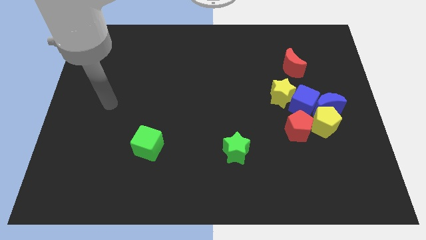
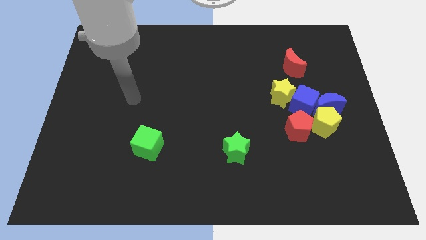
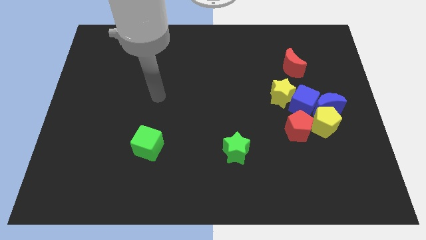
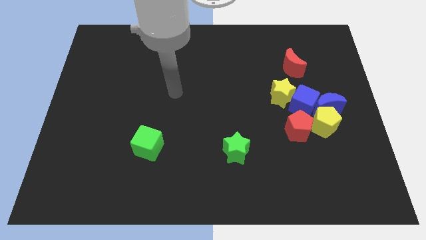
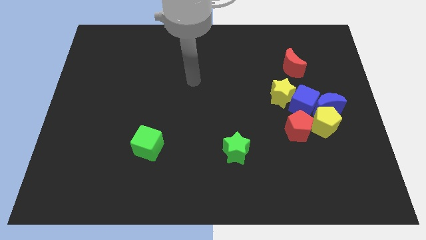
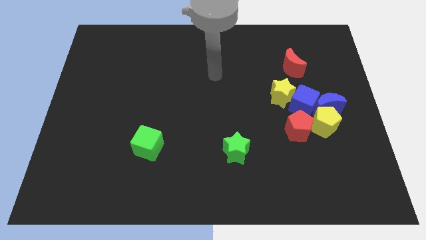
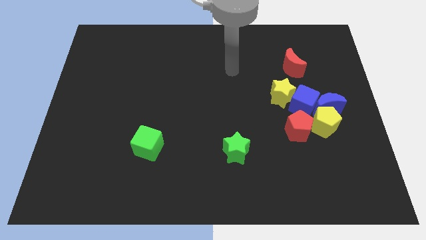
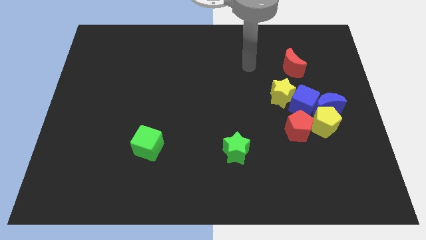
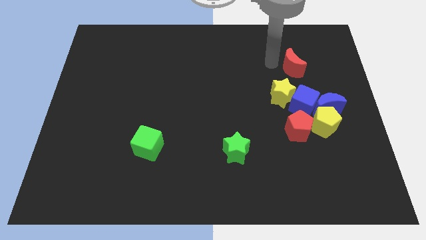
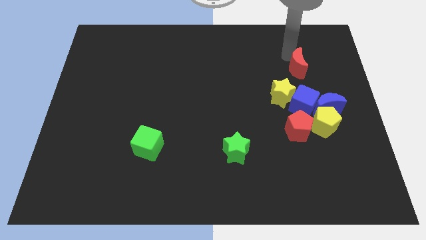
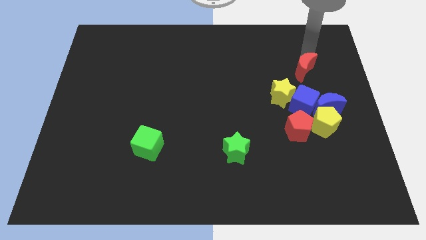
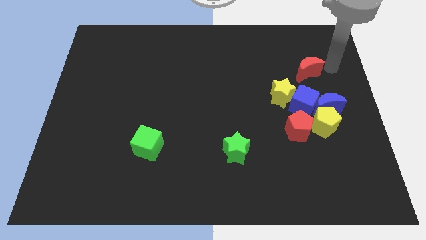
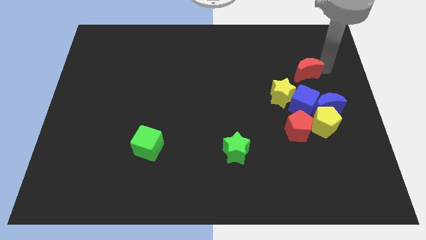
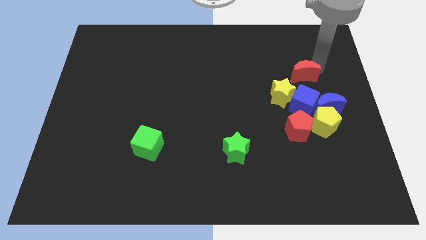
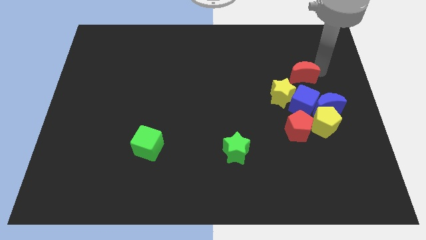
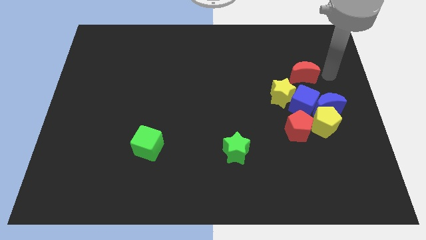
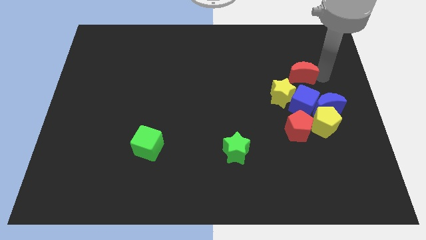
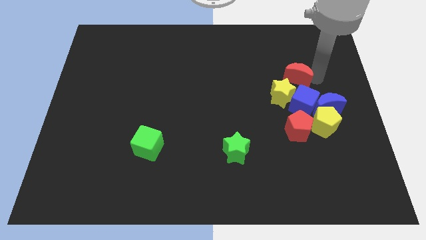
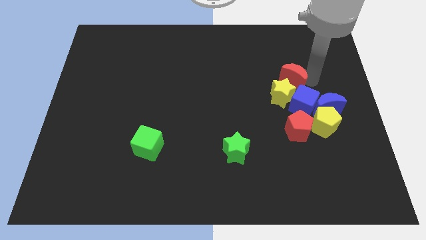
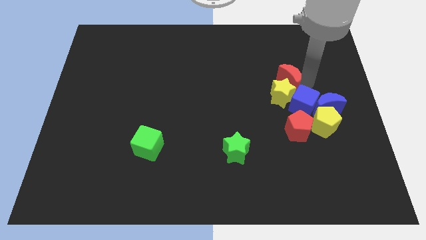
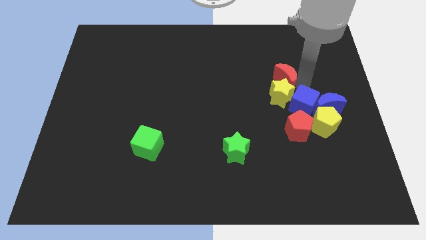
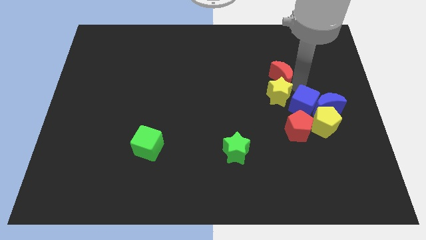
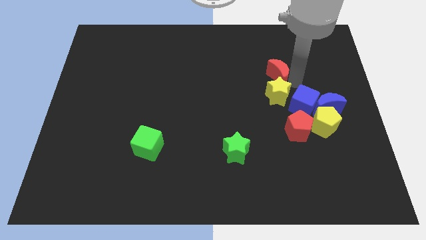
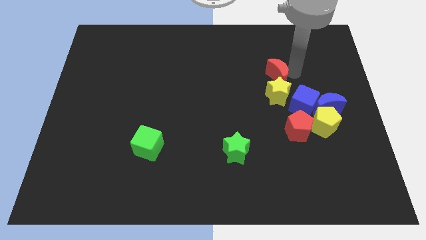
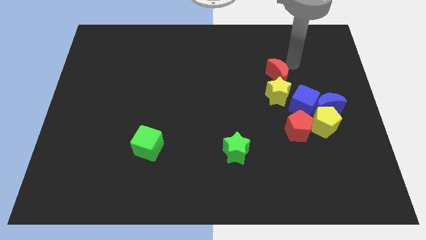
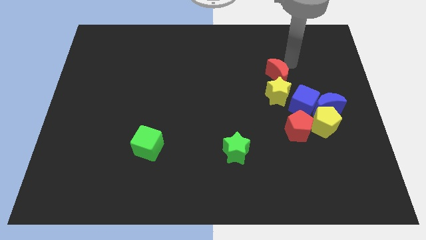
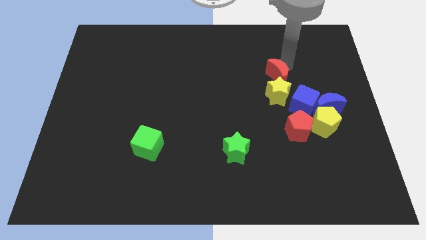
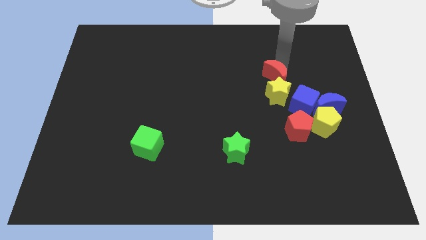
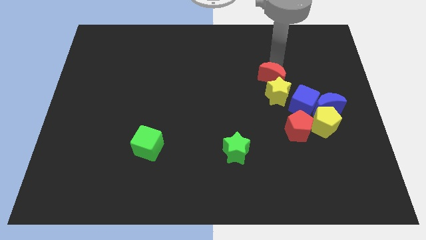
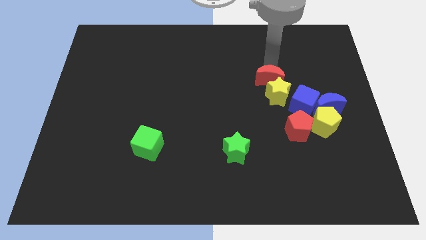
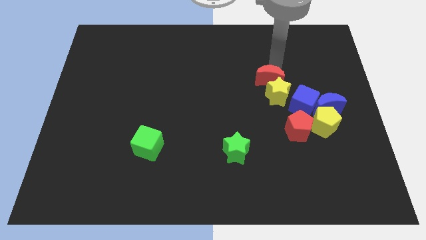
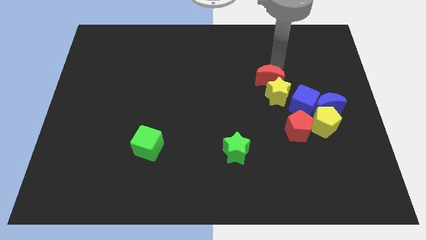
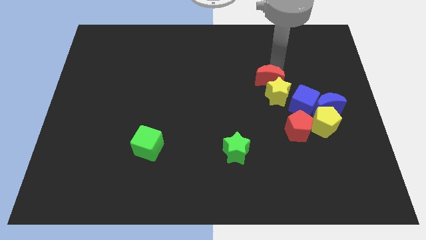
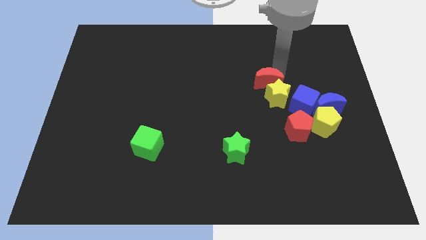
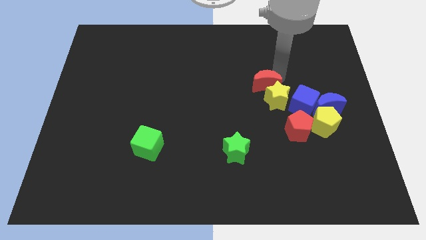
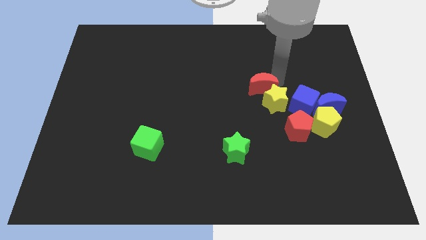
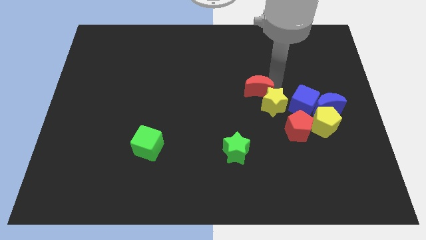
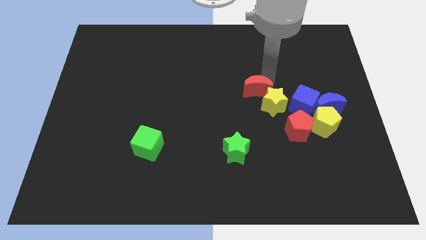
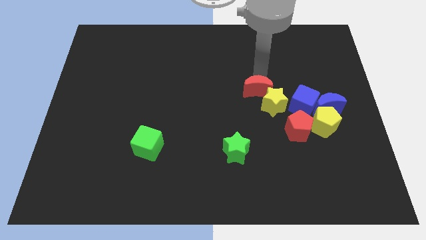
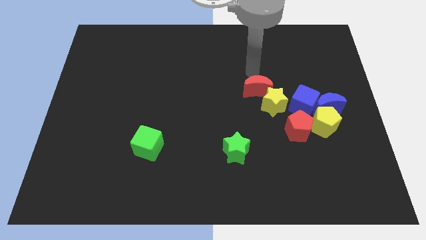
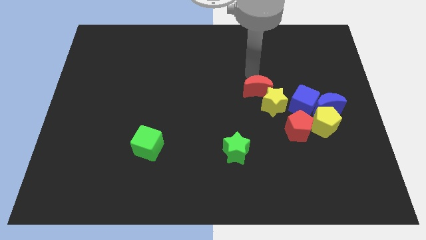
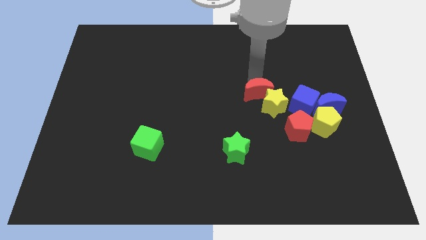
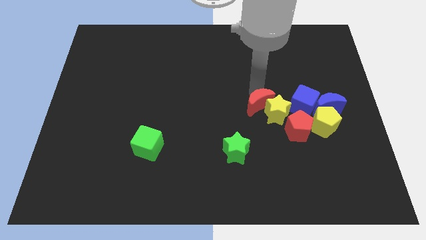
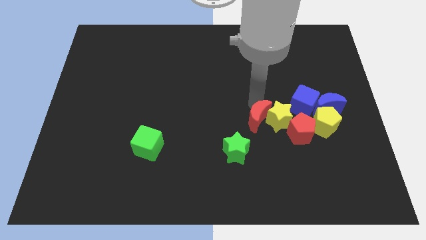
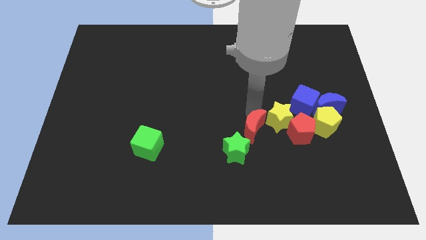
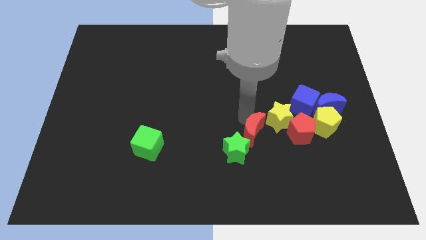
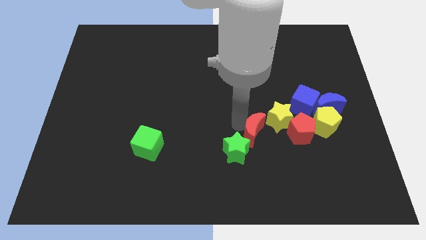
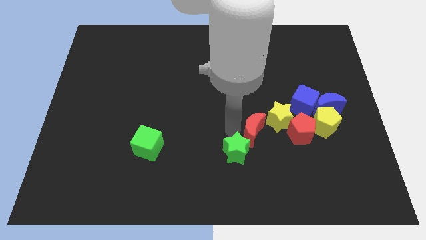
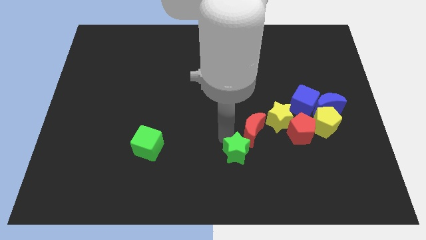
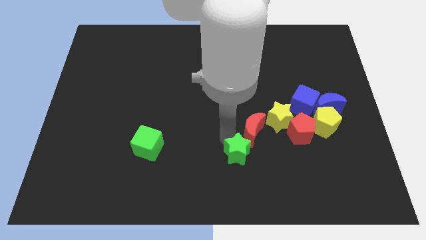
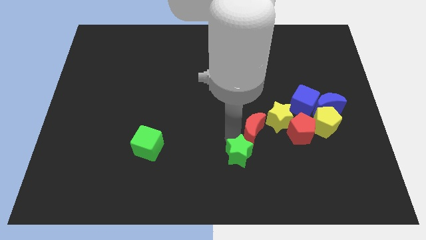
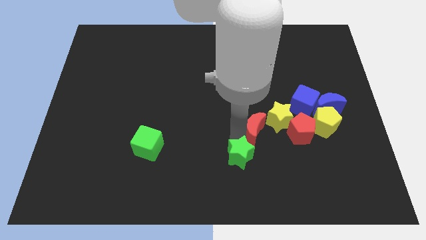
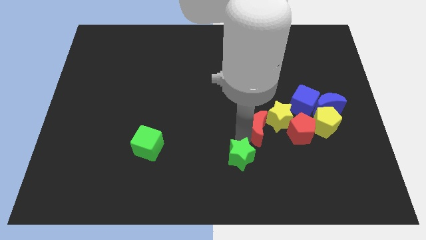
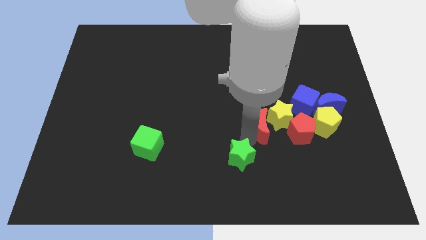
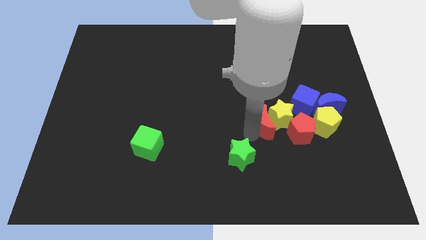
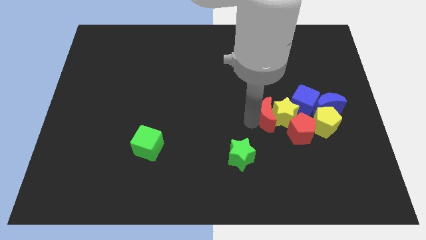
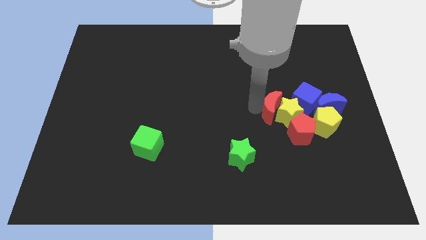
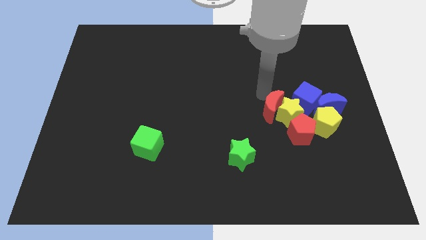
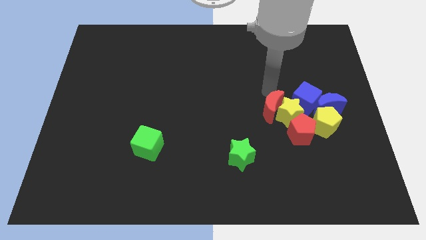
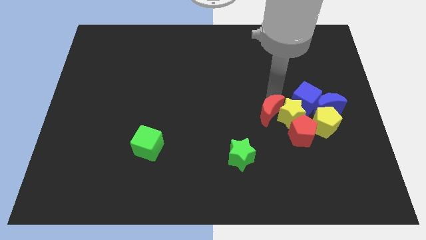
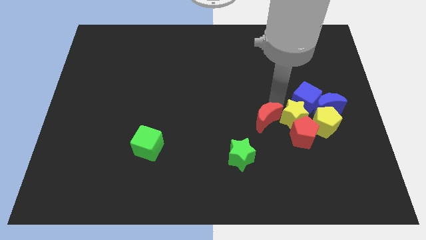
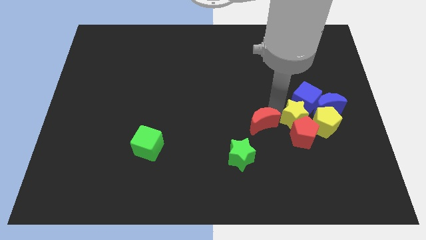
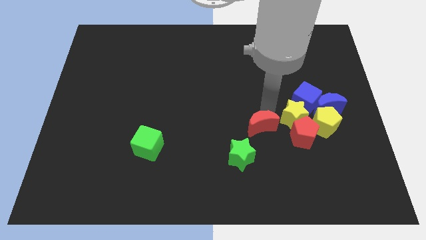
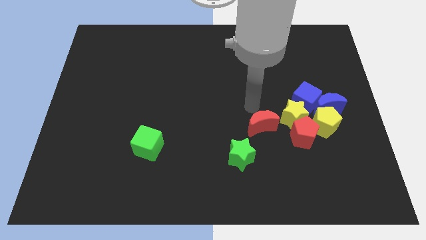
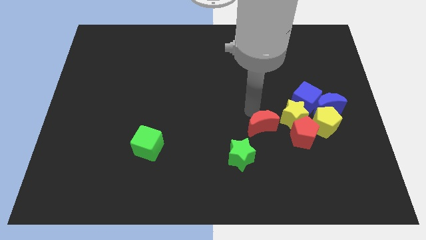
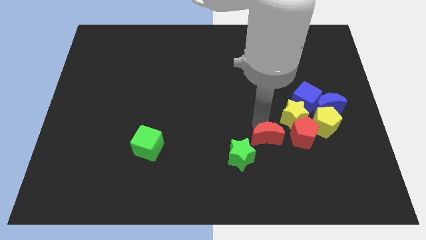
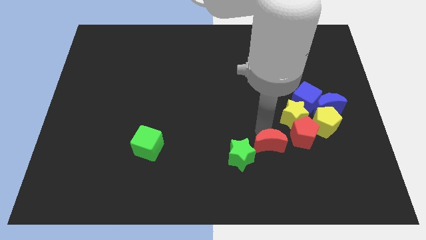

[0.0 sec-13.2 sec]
push the red moon diagonally down and to the left of the red pentagon
